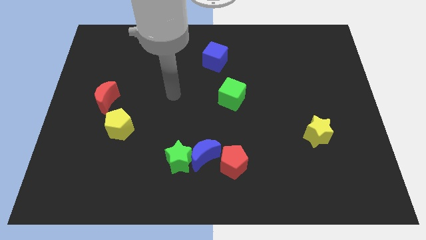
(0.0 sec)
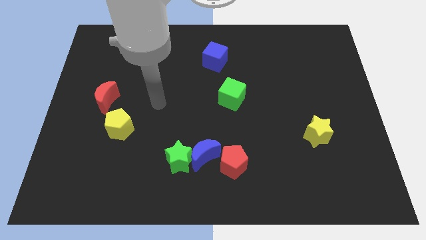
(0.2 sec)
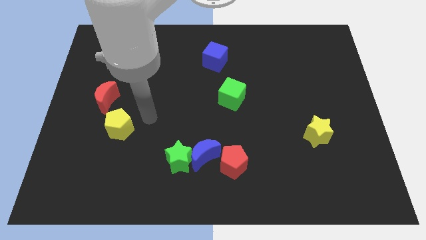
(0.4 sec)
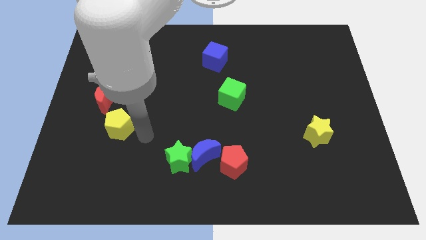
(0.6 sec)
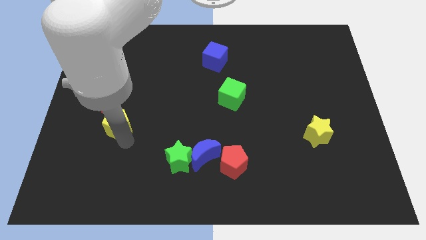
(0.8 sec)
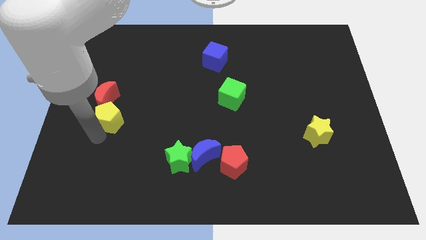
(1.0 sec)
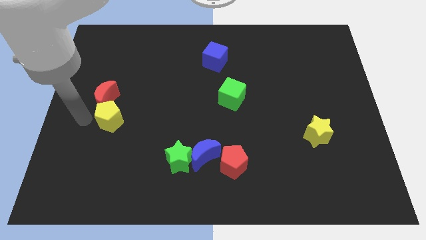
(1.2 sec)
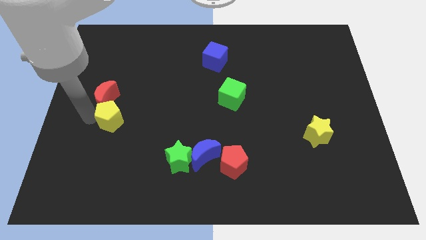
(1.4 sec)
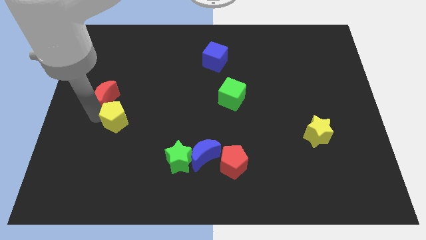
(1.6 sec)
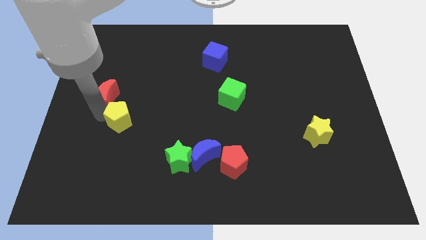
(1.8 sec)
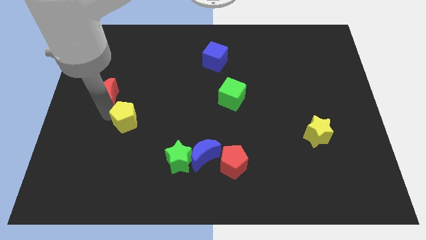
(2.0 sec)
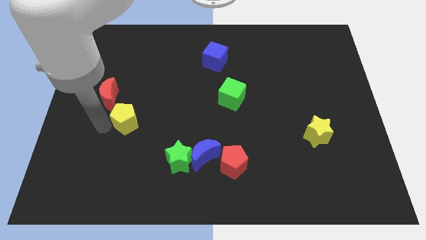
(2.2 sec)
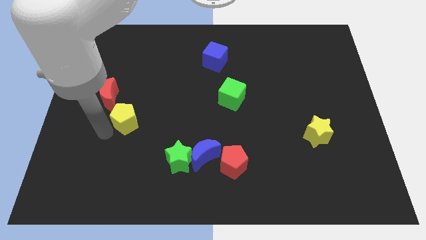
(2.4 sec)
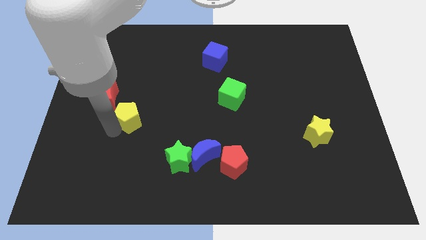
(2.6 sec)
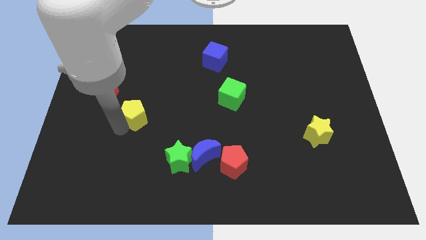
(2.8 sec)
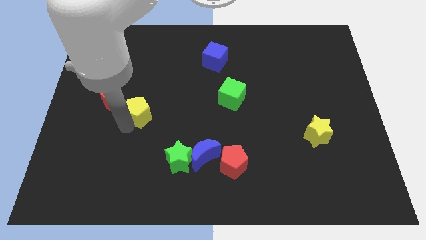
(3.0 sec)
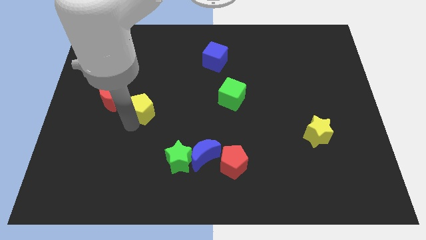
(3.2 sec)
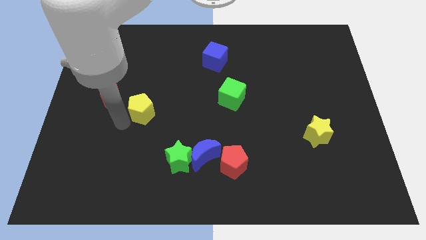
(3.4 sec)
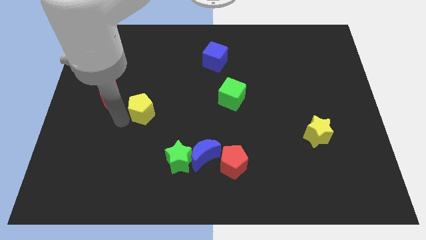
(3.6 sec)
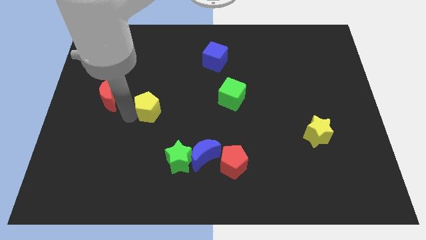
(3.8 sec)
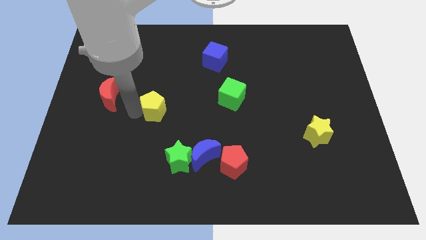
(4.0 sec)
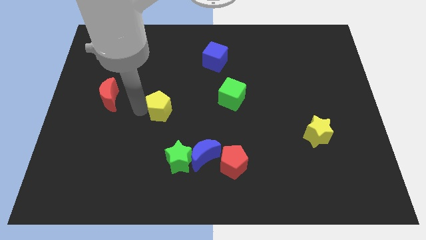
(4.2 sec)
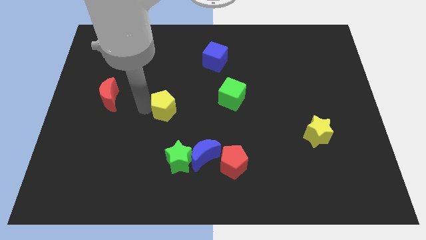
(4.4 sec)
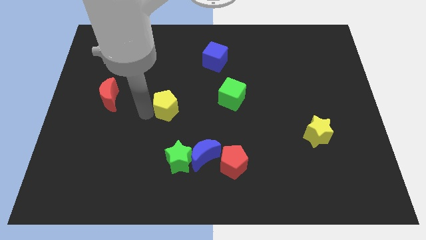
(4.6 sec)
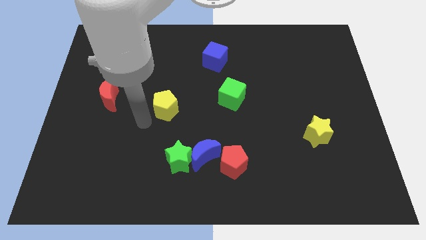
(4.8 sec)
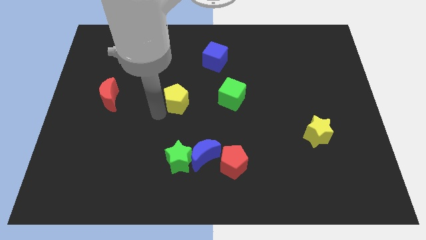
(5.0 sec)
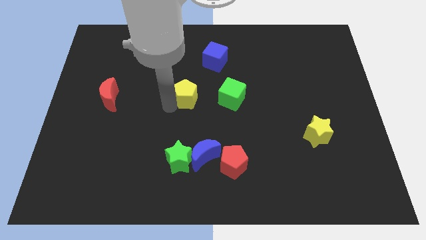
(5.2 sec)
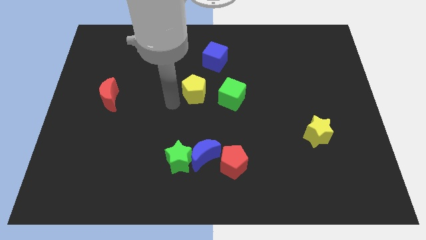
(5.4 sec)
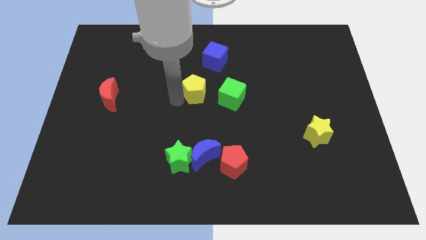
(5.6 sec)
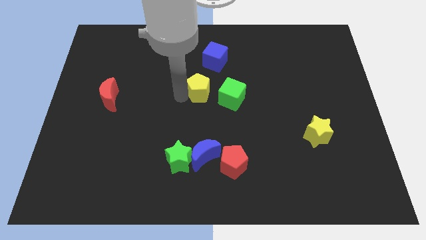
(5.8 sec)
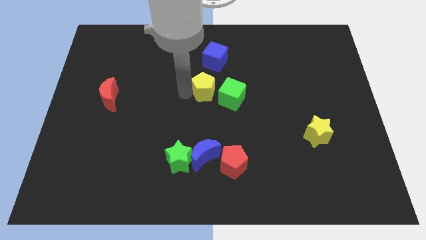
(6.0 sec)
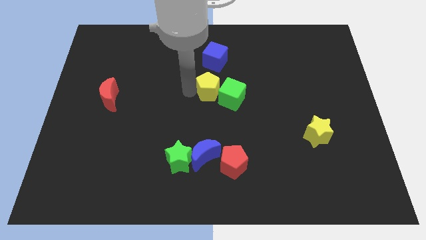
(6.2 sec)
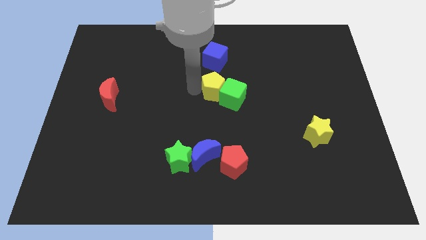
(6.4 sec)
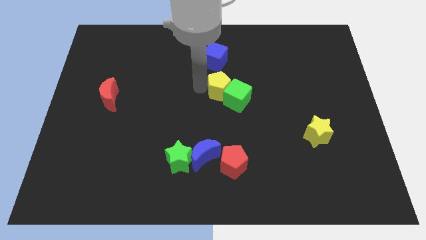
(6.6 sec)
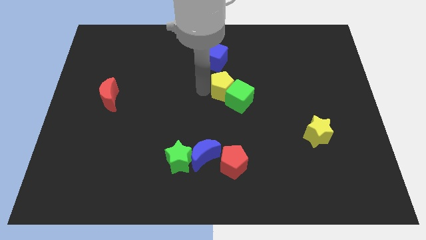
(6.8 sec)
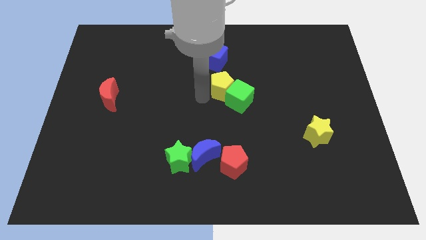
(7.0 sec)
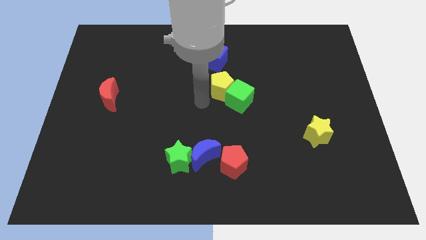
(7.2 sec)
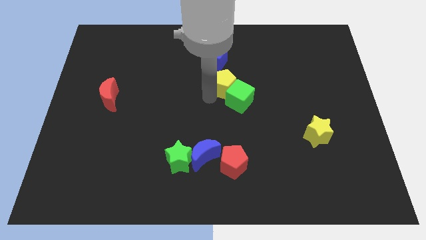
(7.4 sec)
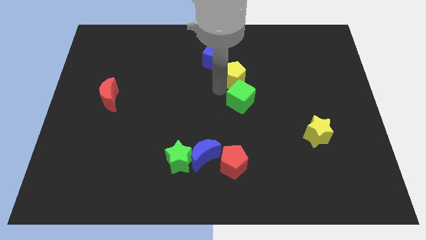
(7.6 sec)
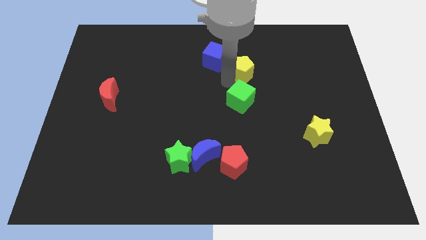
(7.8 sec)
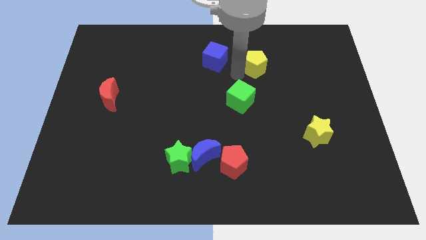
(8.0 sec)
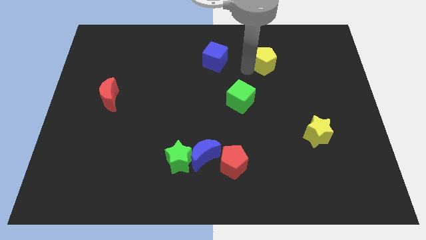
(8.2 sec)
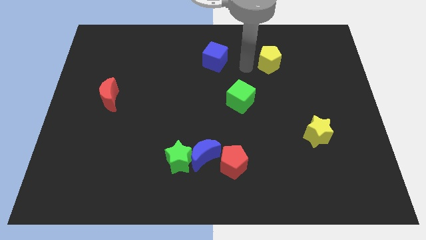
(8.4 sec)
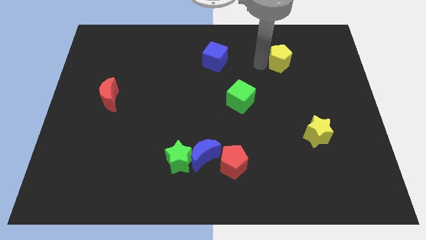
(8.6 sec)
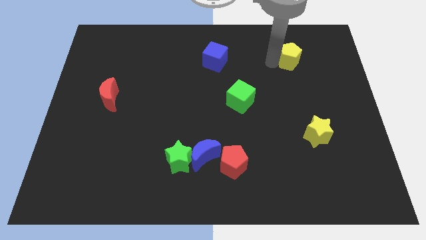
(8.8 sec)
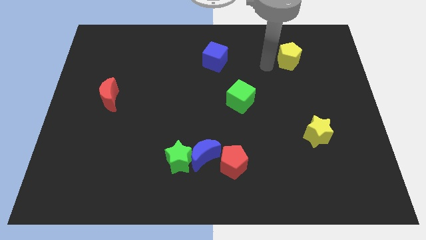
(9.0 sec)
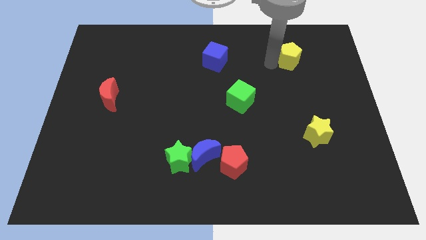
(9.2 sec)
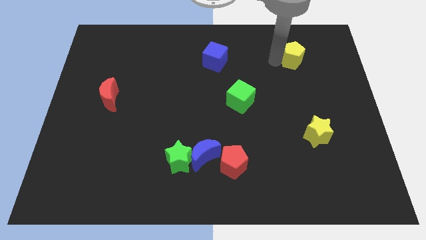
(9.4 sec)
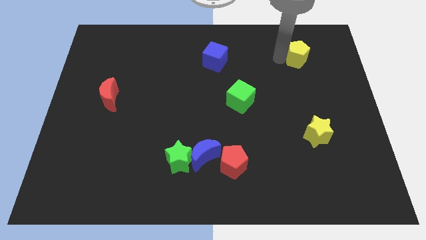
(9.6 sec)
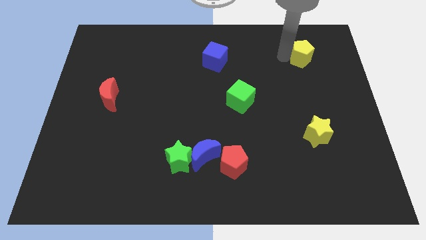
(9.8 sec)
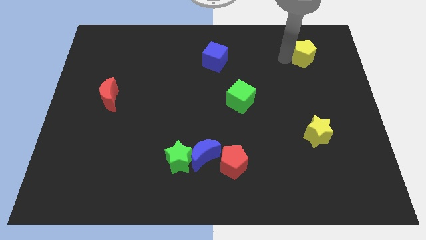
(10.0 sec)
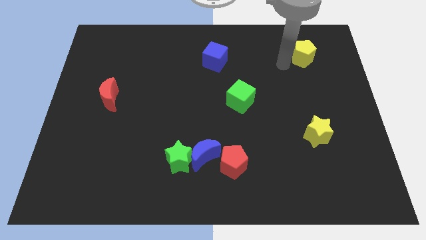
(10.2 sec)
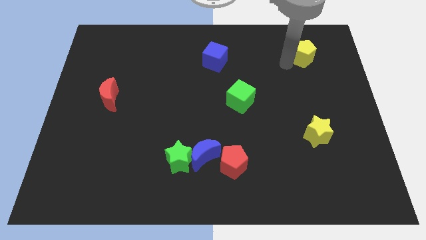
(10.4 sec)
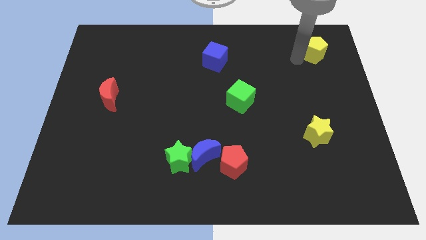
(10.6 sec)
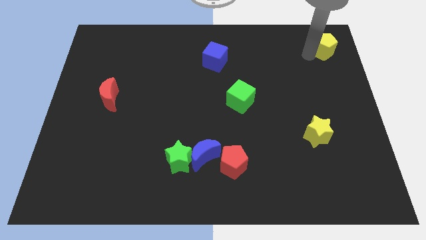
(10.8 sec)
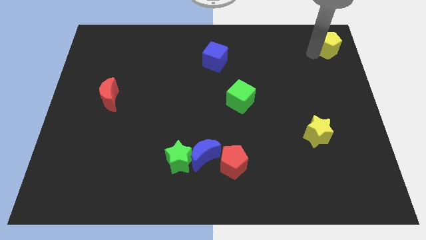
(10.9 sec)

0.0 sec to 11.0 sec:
push the yellow pentagon to the top right corner

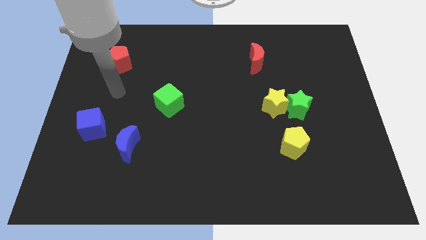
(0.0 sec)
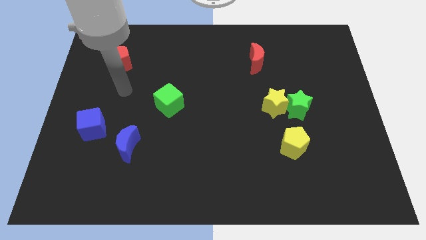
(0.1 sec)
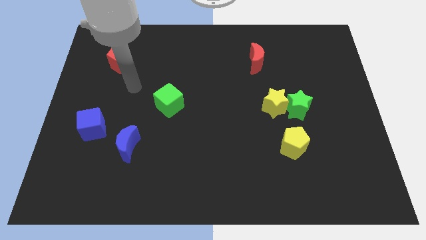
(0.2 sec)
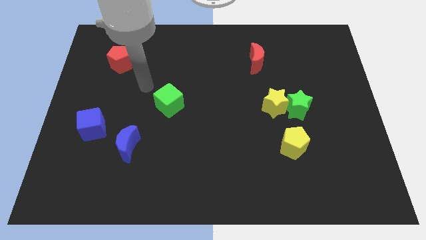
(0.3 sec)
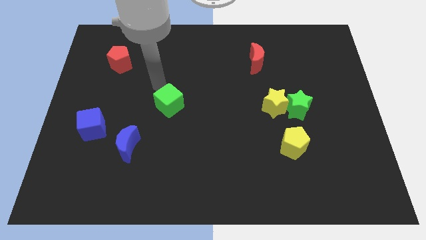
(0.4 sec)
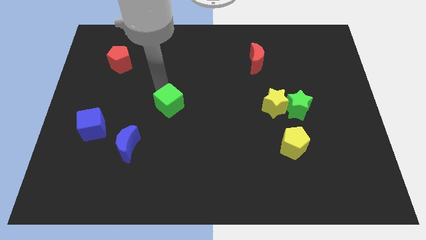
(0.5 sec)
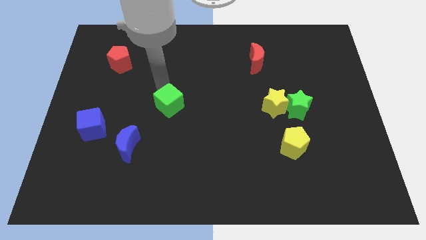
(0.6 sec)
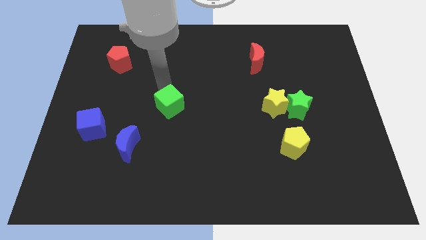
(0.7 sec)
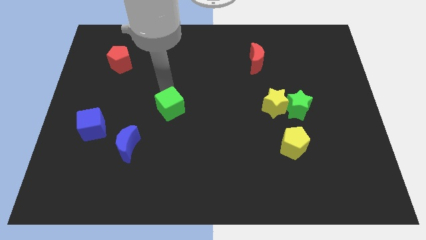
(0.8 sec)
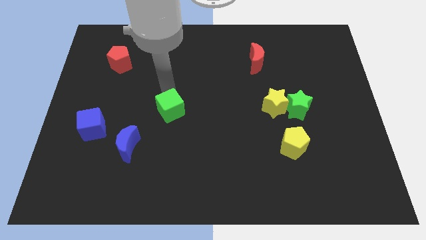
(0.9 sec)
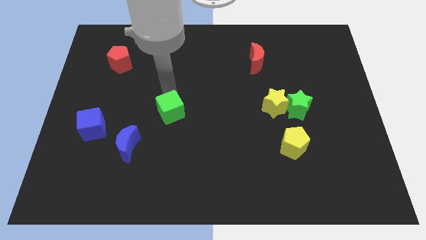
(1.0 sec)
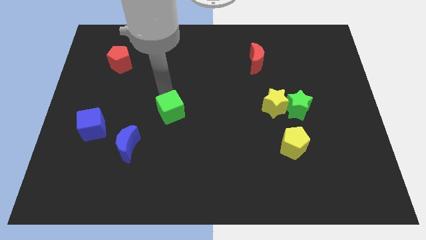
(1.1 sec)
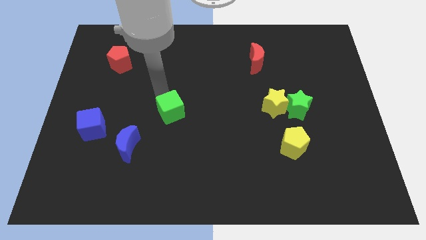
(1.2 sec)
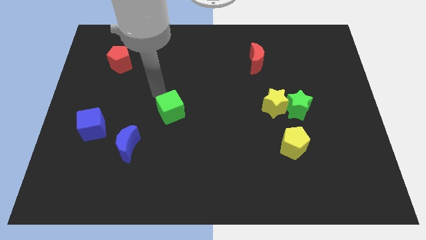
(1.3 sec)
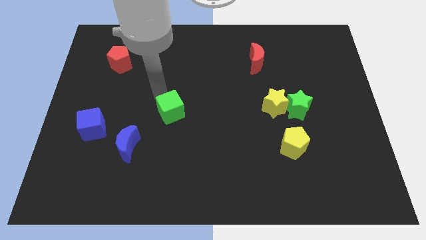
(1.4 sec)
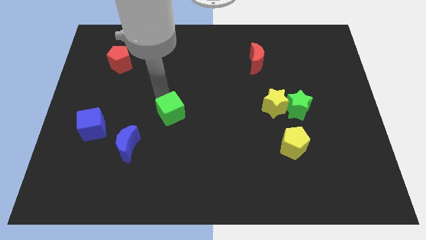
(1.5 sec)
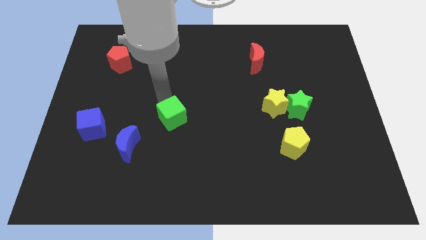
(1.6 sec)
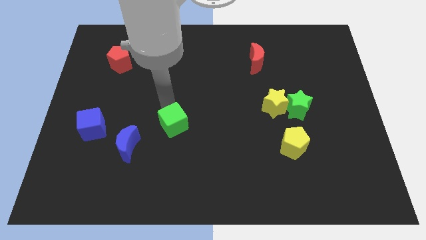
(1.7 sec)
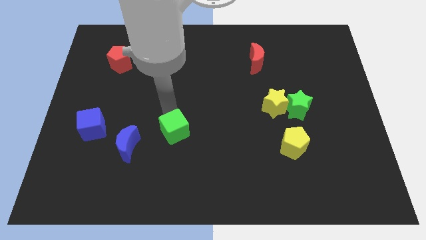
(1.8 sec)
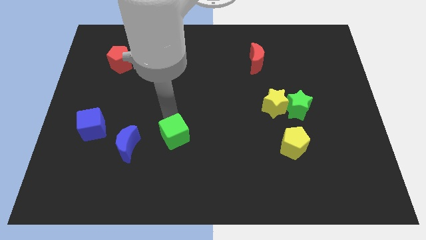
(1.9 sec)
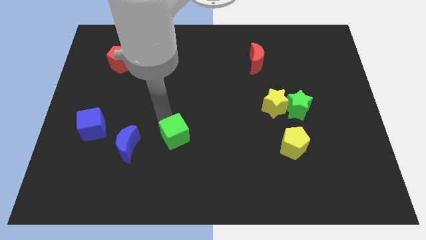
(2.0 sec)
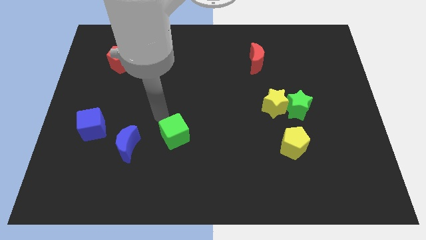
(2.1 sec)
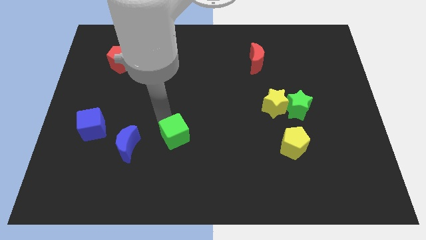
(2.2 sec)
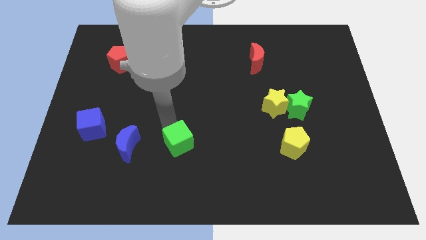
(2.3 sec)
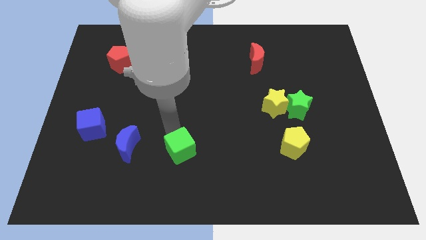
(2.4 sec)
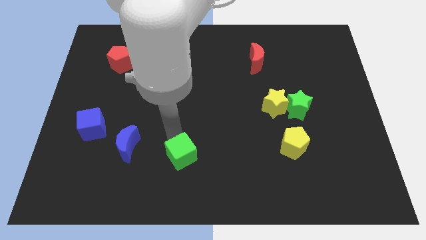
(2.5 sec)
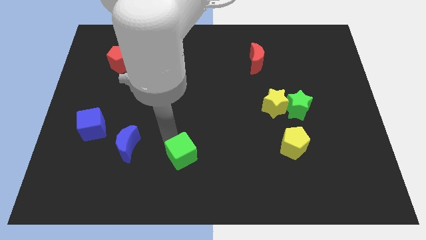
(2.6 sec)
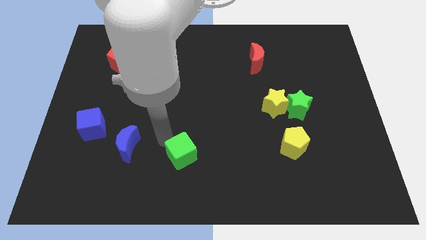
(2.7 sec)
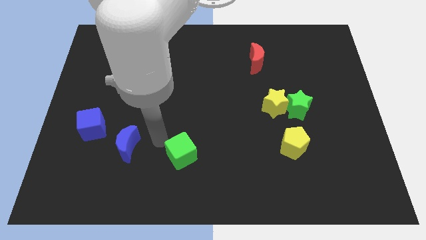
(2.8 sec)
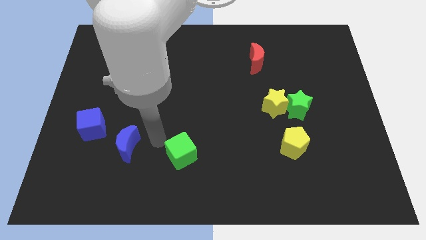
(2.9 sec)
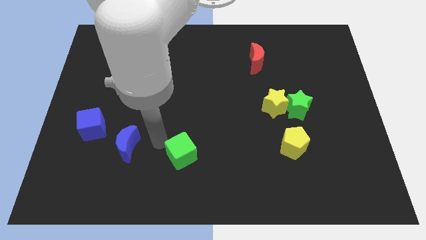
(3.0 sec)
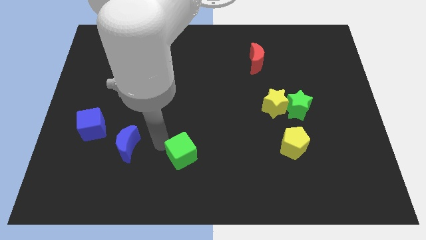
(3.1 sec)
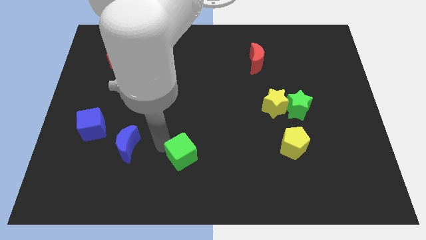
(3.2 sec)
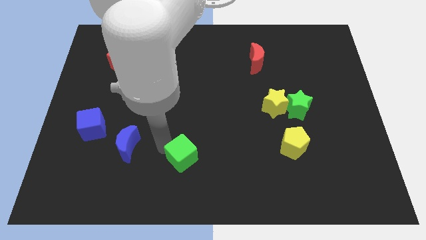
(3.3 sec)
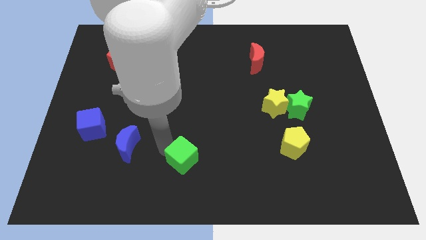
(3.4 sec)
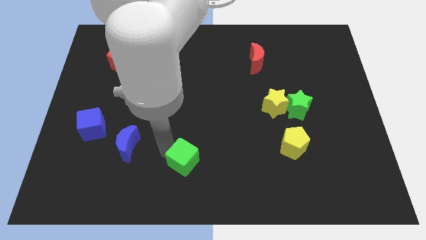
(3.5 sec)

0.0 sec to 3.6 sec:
move the green cube to the bottom
